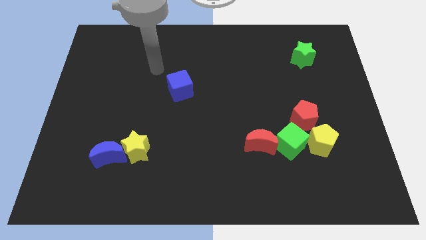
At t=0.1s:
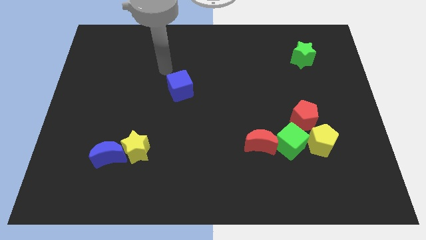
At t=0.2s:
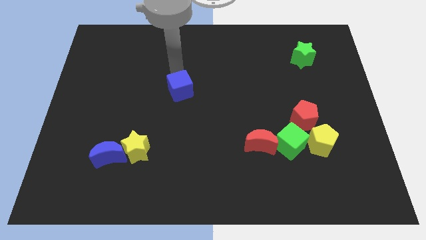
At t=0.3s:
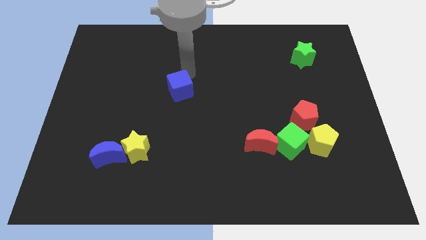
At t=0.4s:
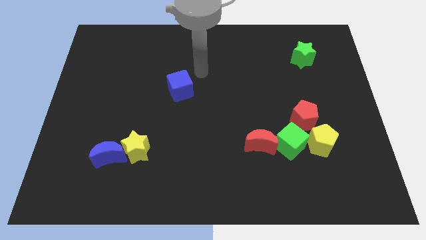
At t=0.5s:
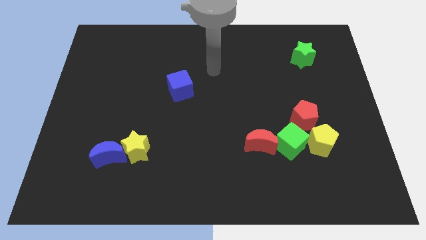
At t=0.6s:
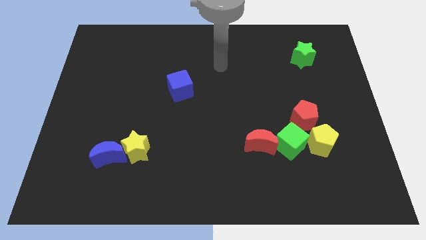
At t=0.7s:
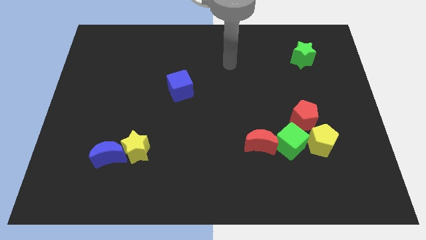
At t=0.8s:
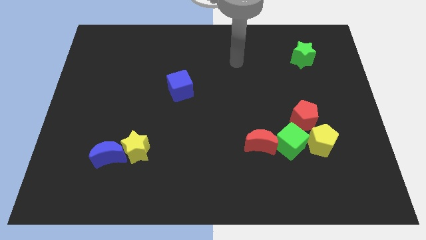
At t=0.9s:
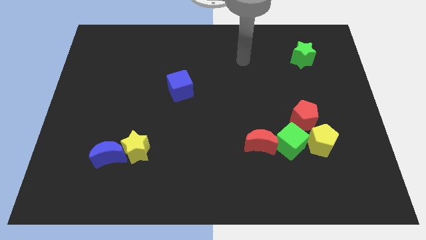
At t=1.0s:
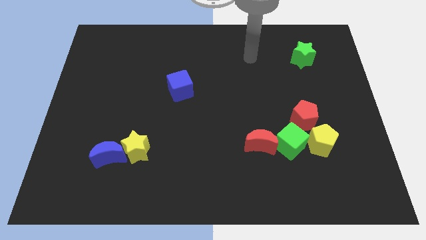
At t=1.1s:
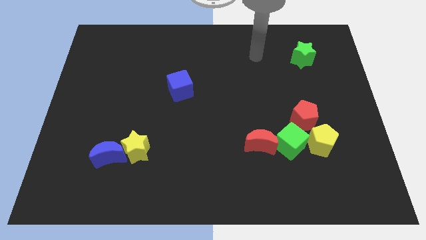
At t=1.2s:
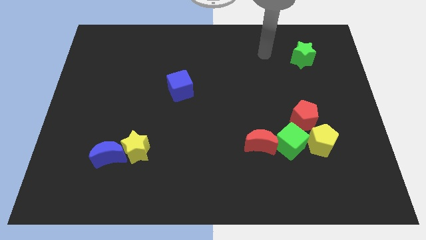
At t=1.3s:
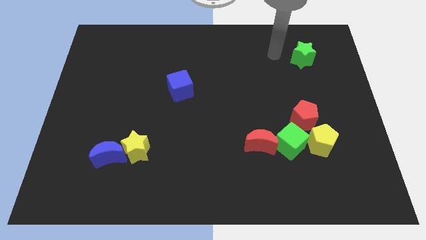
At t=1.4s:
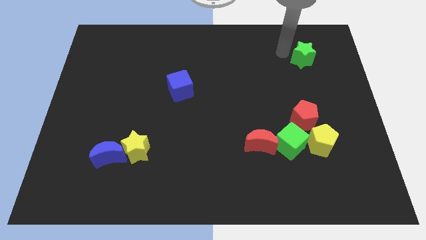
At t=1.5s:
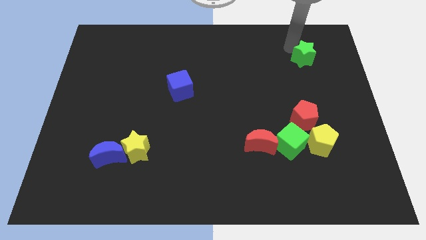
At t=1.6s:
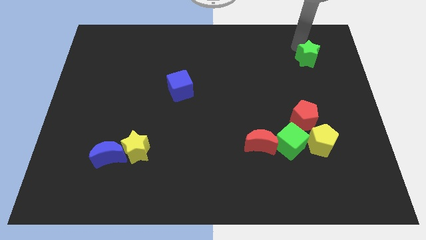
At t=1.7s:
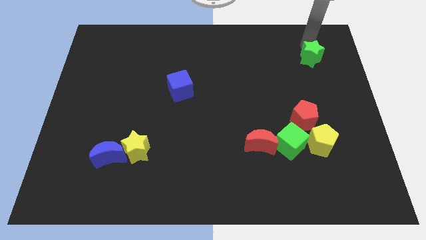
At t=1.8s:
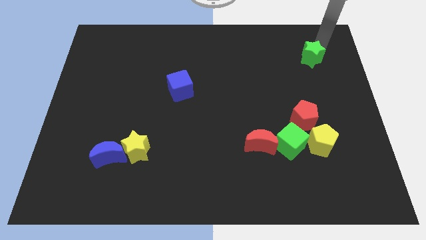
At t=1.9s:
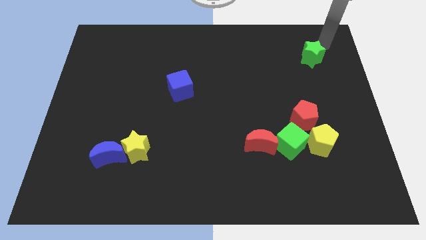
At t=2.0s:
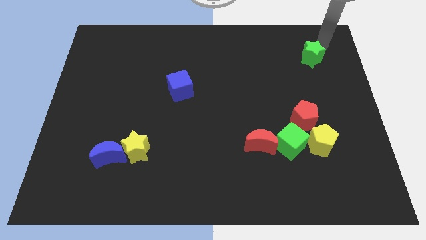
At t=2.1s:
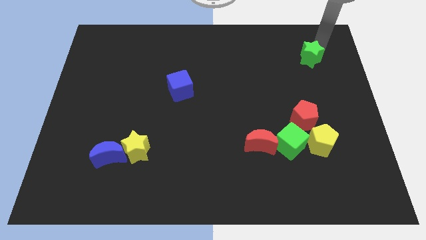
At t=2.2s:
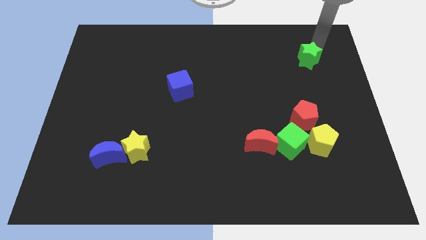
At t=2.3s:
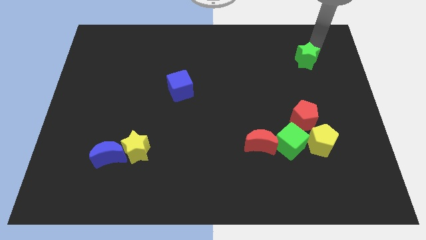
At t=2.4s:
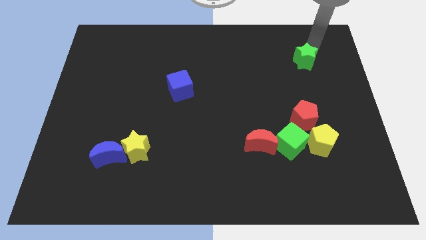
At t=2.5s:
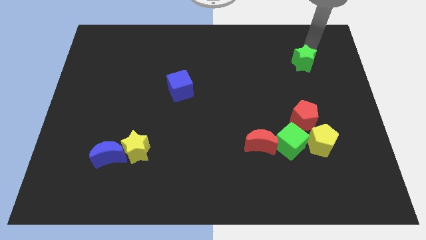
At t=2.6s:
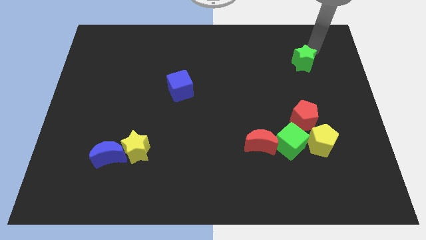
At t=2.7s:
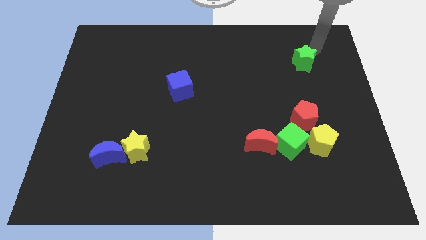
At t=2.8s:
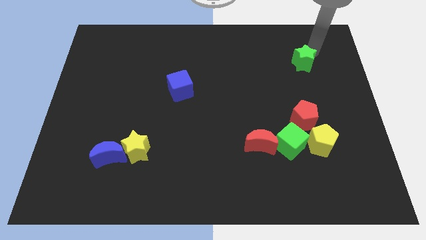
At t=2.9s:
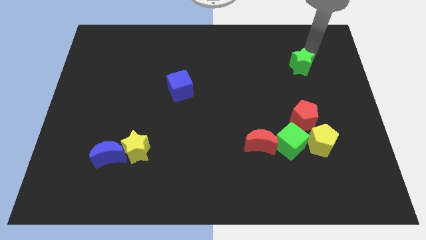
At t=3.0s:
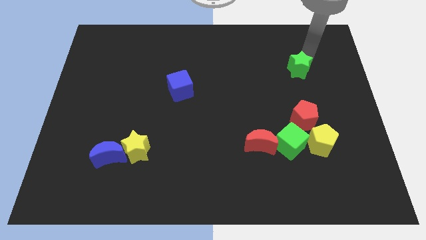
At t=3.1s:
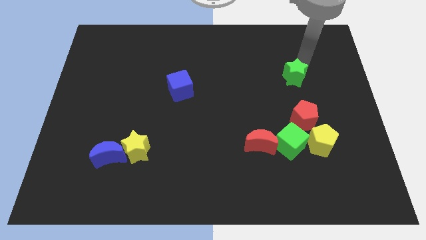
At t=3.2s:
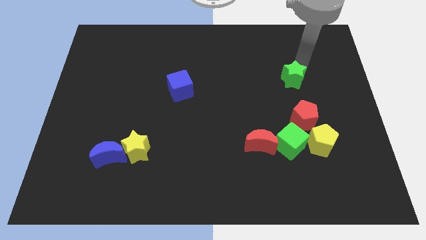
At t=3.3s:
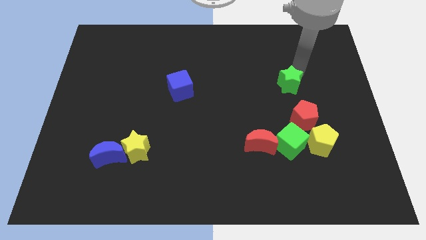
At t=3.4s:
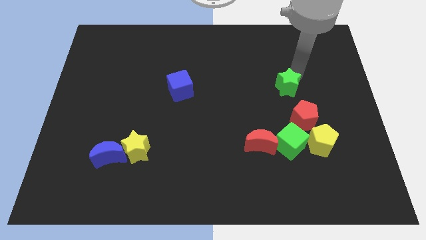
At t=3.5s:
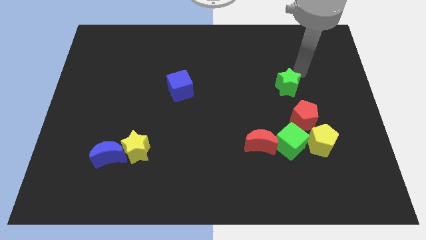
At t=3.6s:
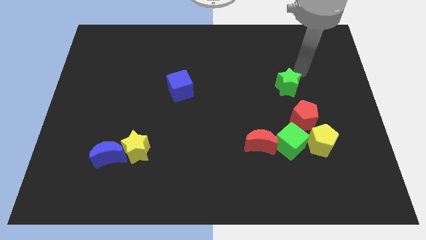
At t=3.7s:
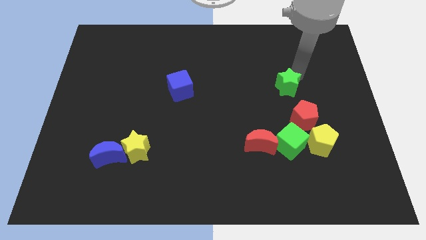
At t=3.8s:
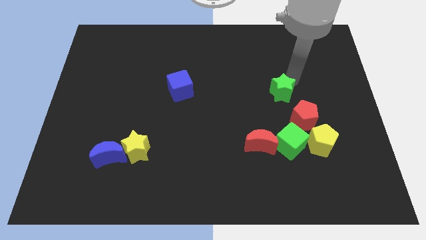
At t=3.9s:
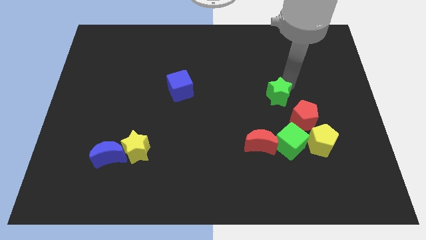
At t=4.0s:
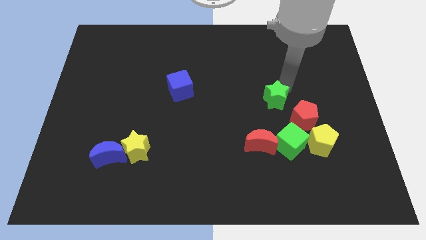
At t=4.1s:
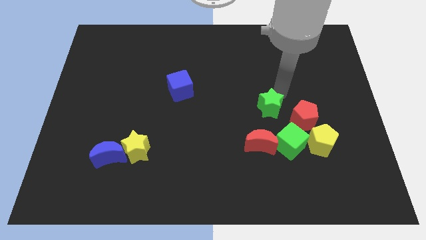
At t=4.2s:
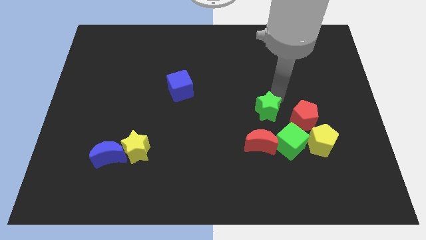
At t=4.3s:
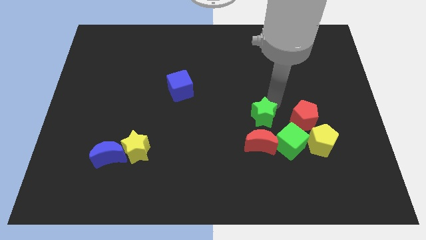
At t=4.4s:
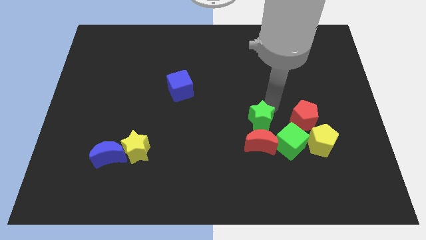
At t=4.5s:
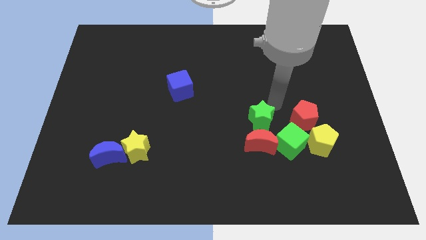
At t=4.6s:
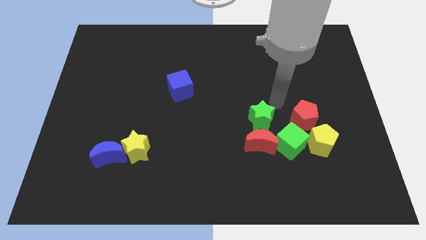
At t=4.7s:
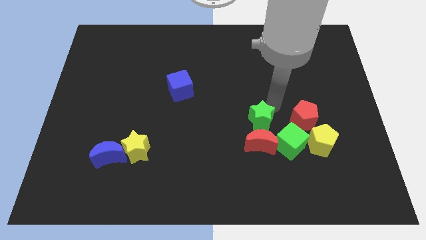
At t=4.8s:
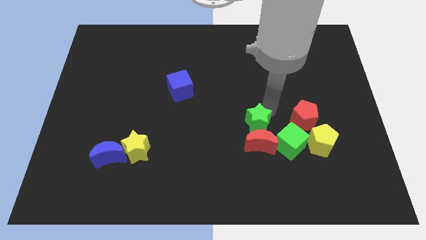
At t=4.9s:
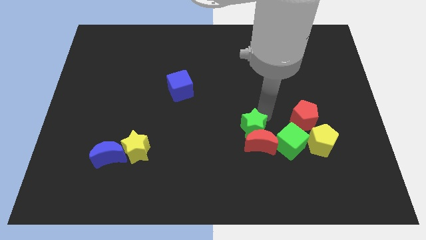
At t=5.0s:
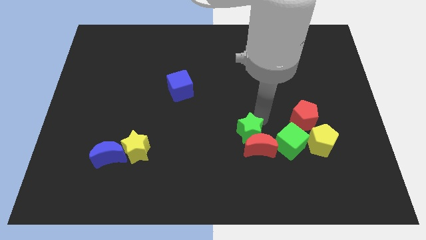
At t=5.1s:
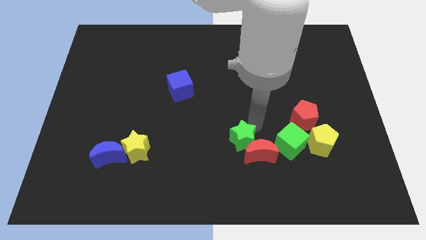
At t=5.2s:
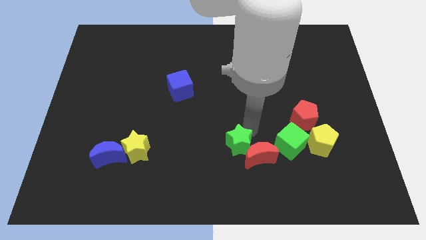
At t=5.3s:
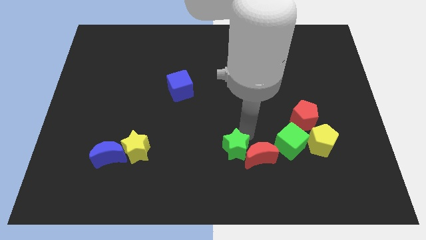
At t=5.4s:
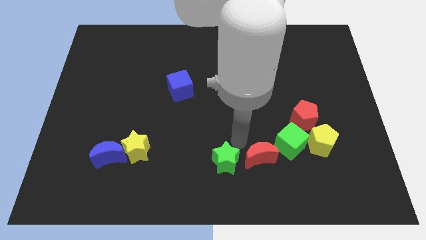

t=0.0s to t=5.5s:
put the green star to the bottom side
